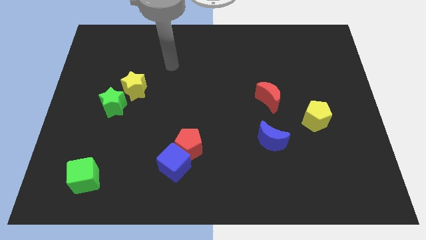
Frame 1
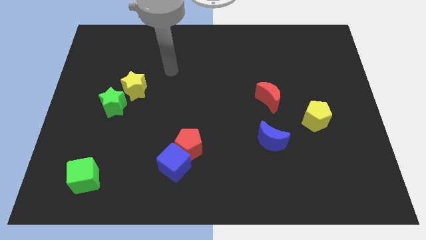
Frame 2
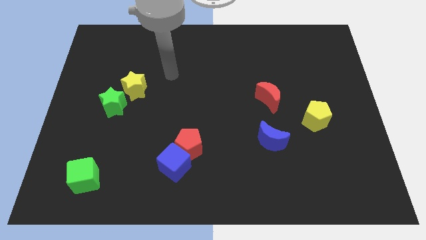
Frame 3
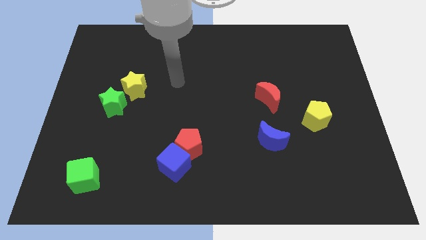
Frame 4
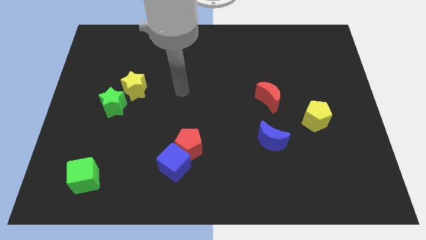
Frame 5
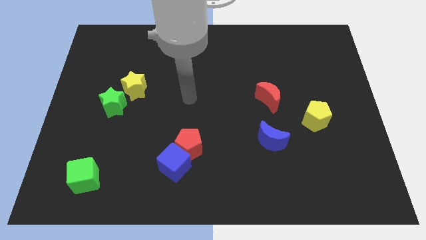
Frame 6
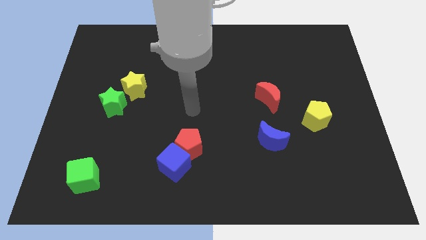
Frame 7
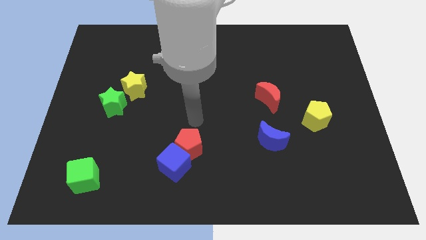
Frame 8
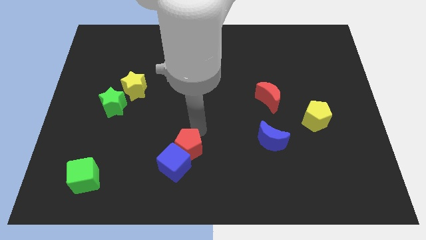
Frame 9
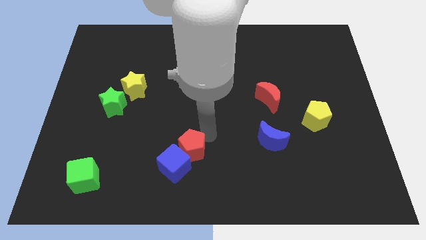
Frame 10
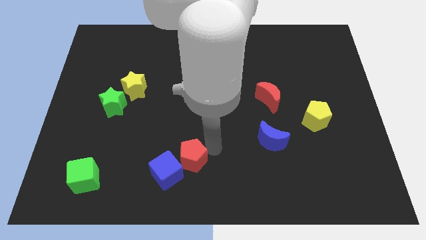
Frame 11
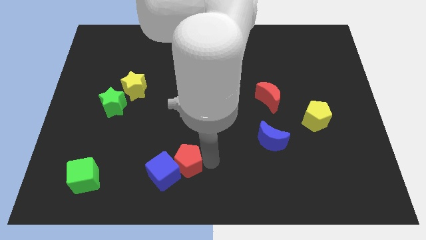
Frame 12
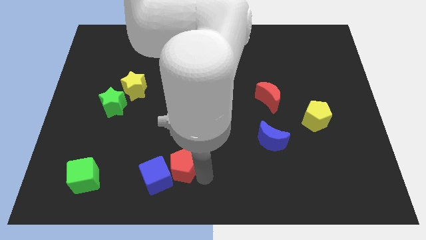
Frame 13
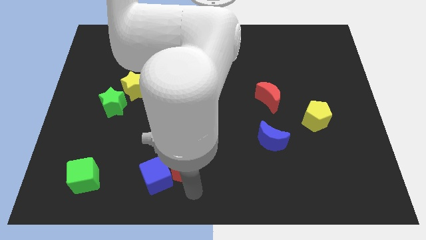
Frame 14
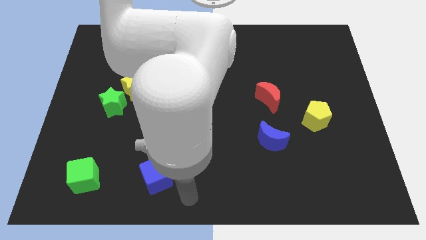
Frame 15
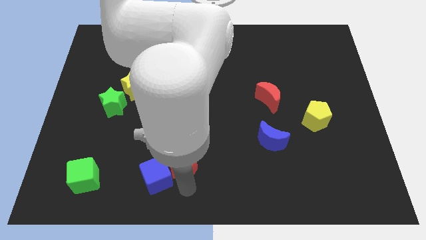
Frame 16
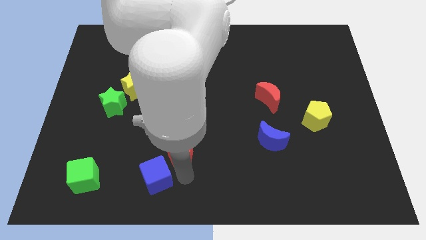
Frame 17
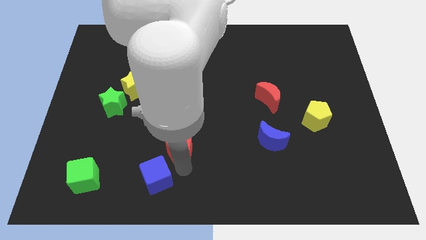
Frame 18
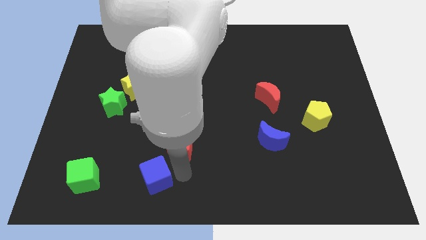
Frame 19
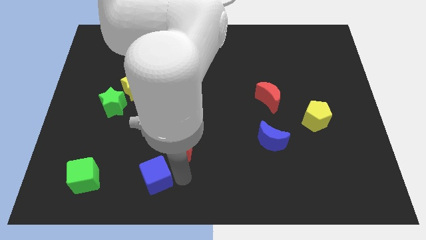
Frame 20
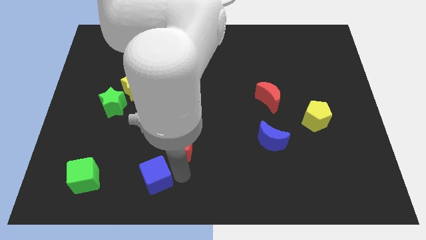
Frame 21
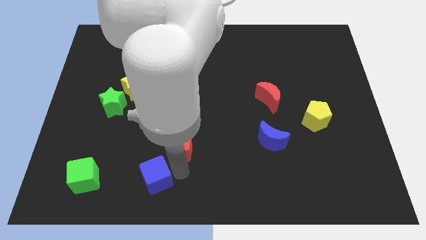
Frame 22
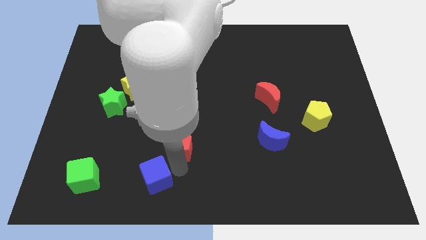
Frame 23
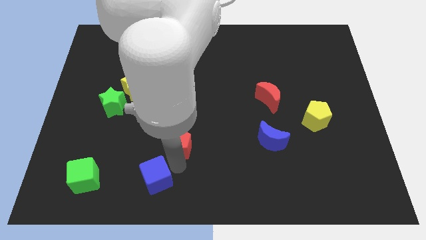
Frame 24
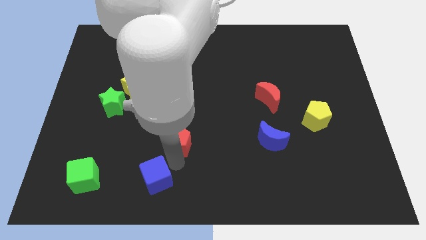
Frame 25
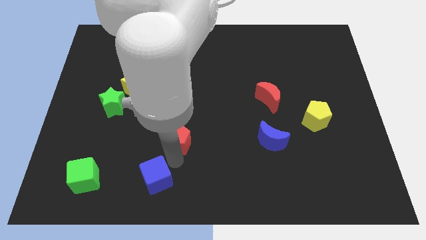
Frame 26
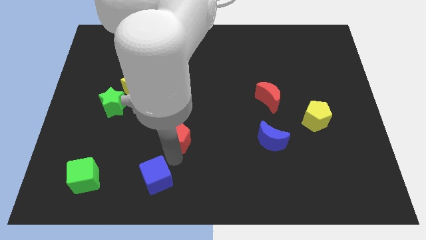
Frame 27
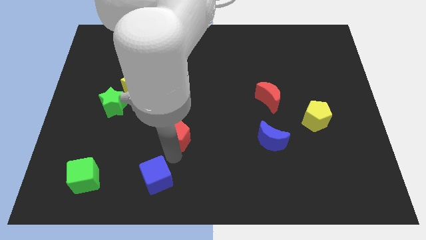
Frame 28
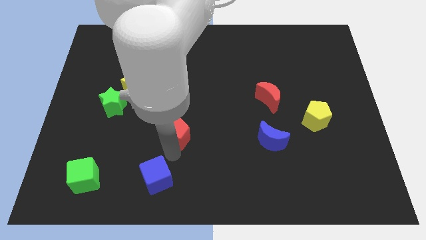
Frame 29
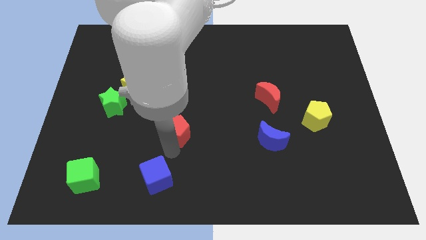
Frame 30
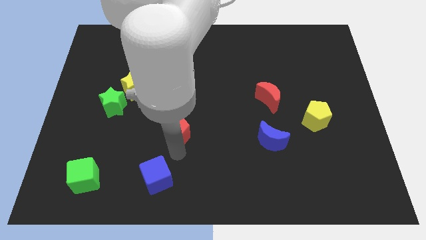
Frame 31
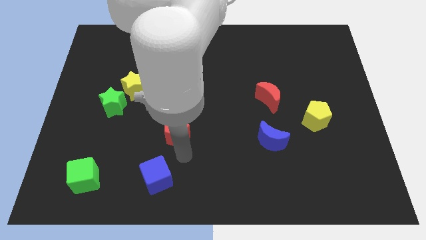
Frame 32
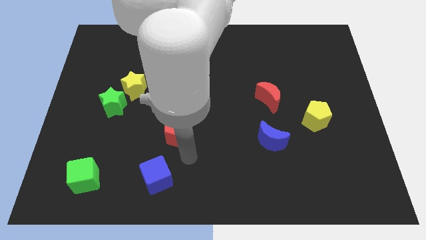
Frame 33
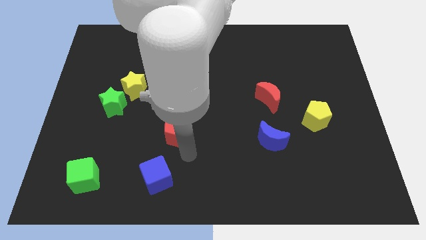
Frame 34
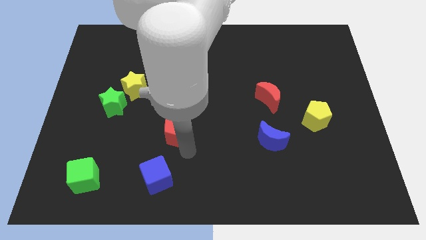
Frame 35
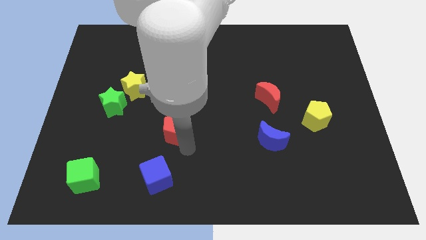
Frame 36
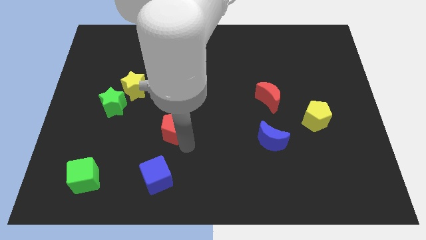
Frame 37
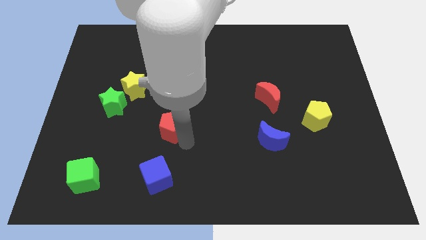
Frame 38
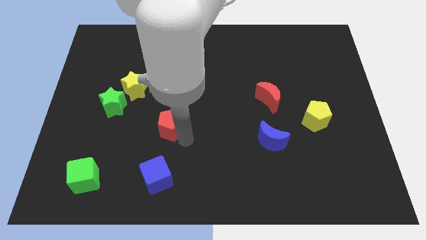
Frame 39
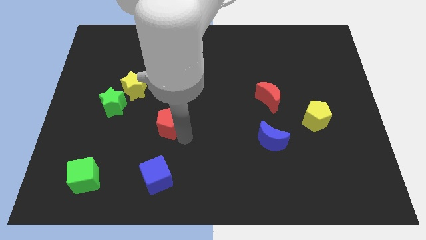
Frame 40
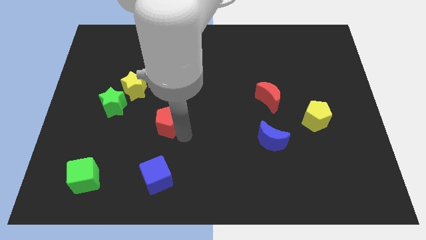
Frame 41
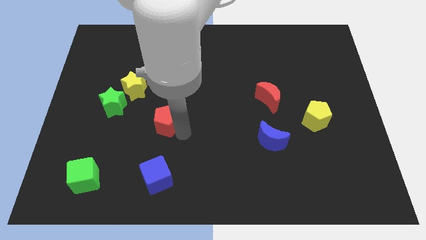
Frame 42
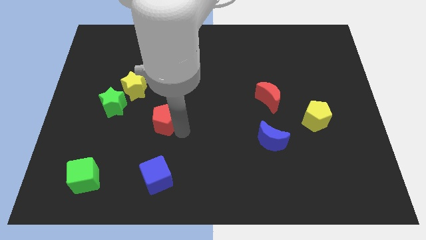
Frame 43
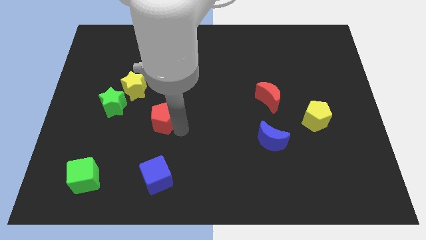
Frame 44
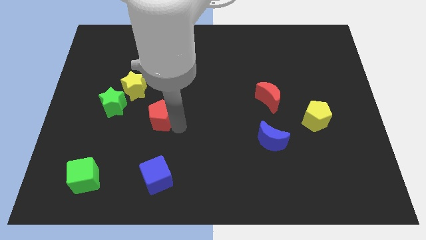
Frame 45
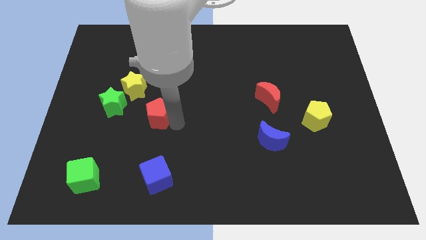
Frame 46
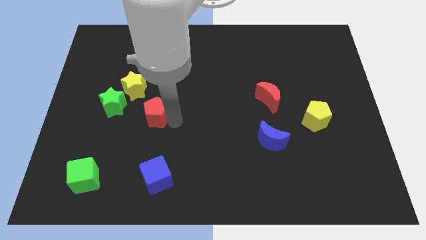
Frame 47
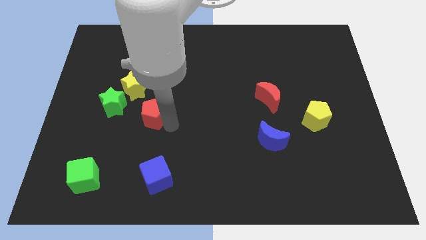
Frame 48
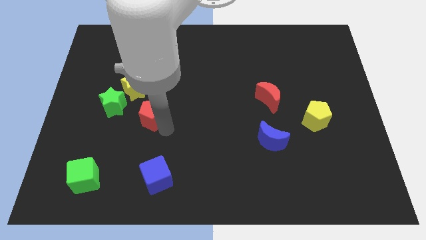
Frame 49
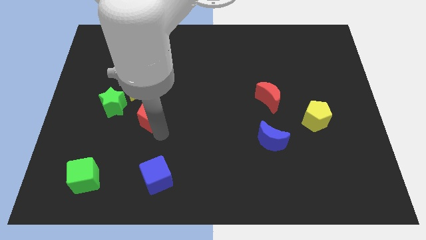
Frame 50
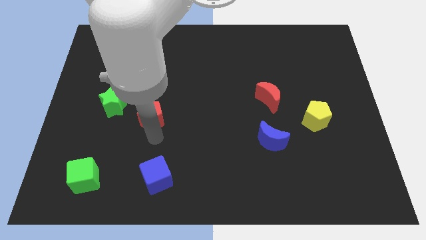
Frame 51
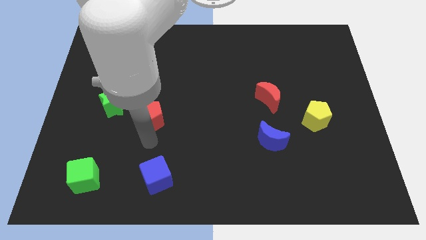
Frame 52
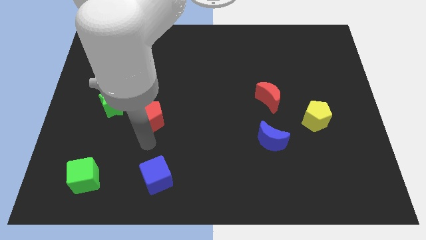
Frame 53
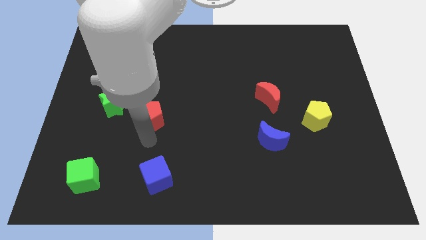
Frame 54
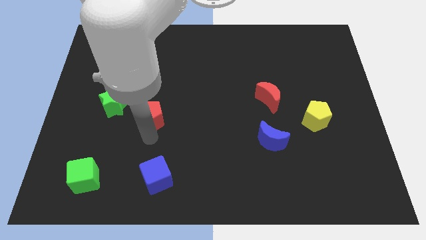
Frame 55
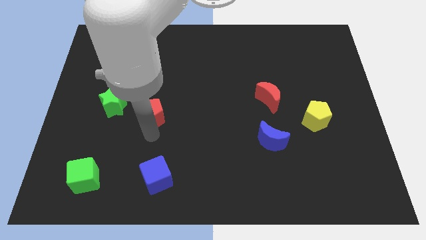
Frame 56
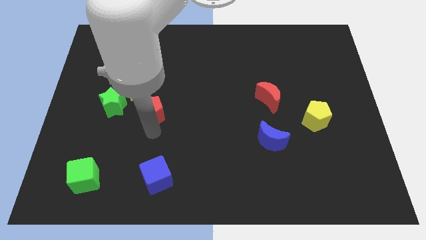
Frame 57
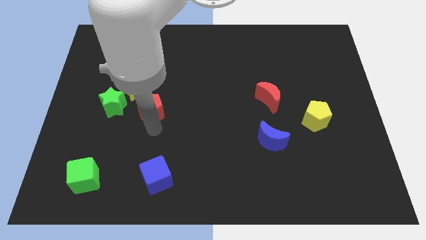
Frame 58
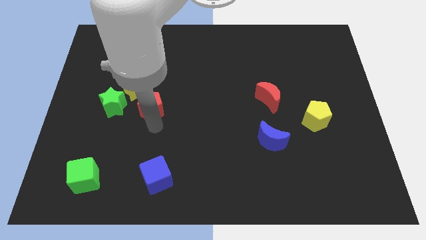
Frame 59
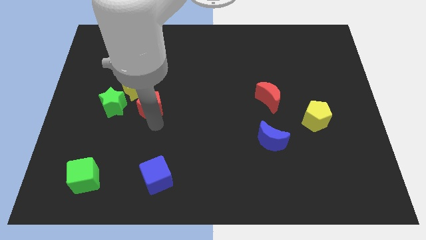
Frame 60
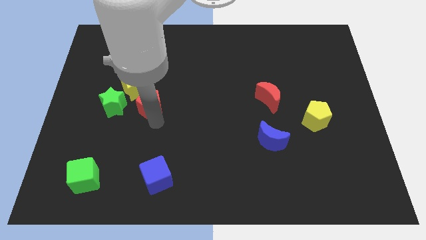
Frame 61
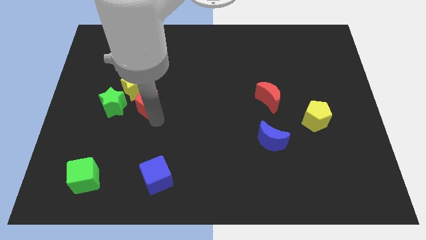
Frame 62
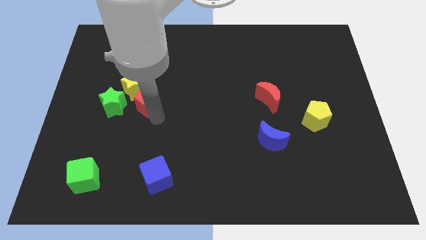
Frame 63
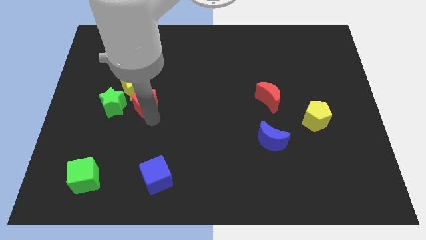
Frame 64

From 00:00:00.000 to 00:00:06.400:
put the red pentagon to the top right of the green star

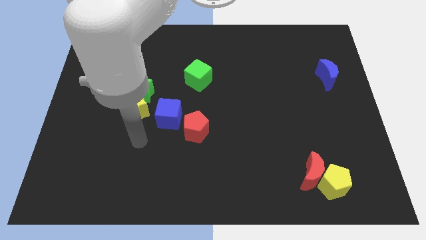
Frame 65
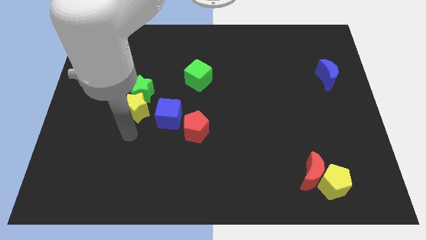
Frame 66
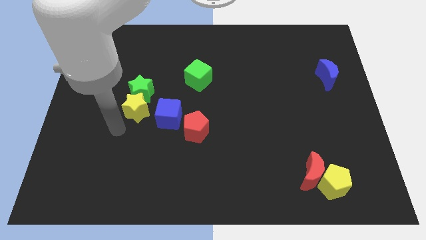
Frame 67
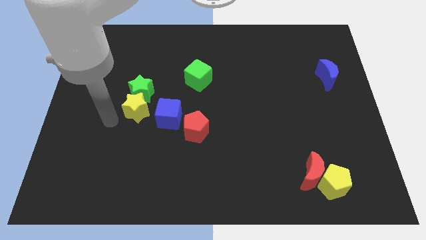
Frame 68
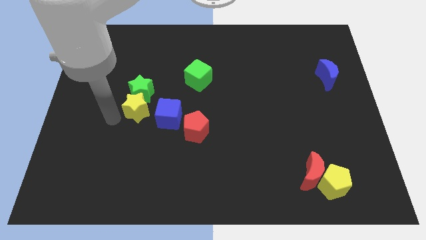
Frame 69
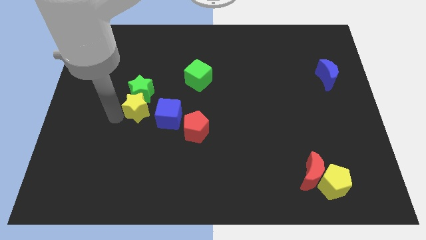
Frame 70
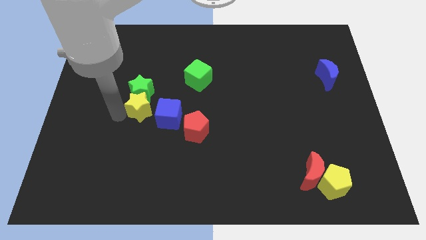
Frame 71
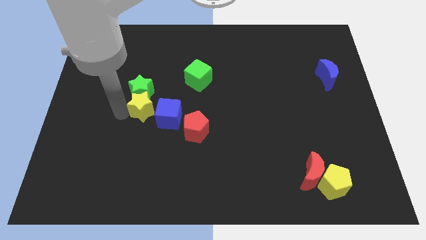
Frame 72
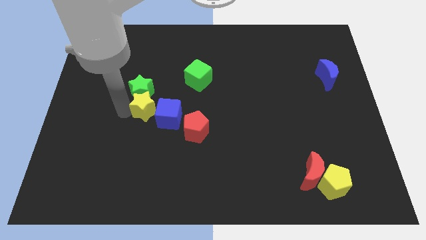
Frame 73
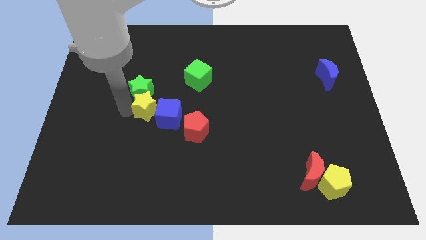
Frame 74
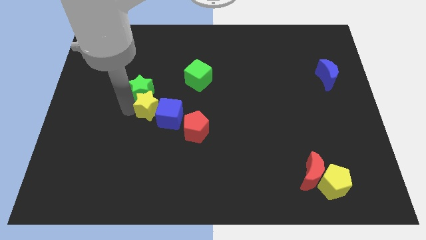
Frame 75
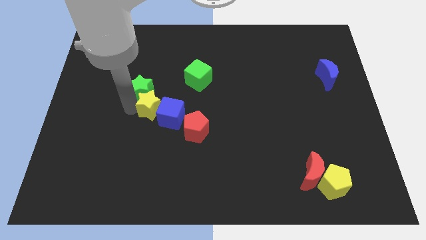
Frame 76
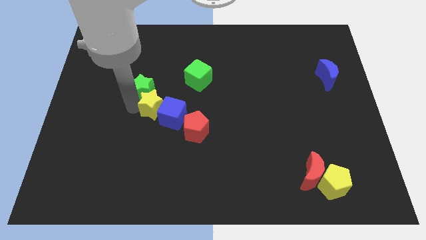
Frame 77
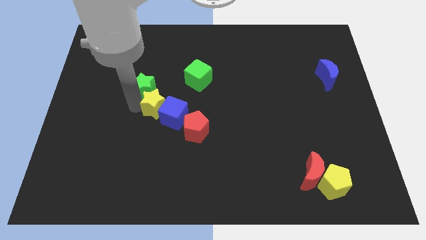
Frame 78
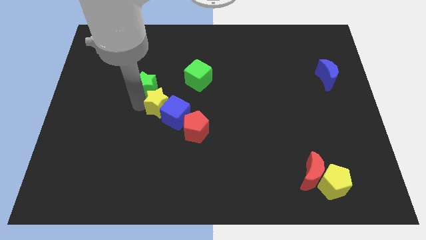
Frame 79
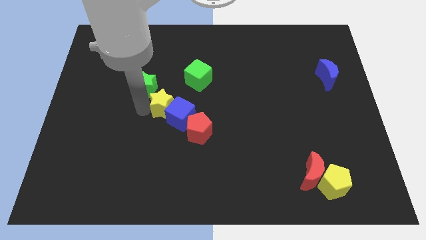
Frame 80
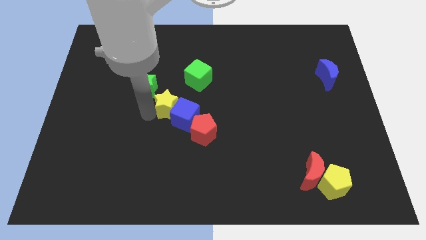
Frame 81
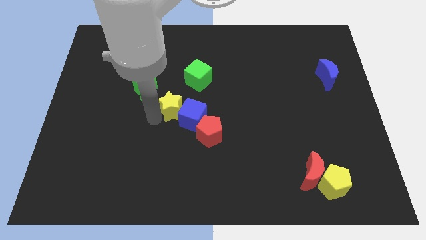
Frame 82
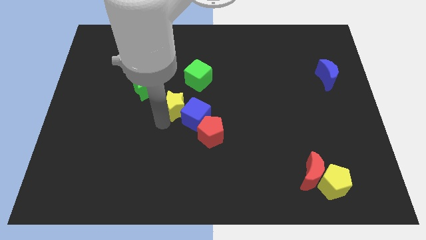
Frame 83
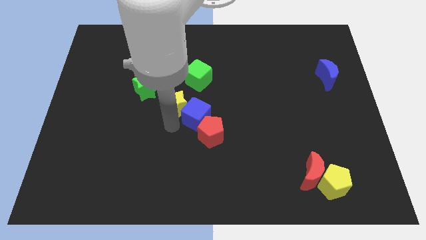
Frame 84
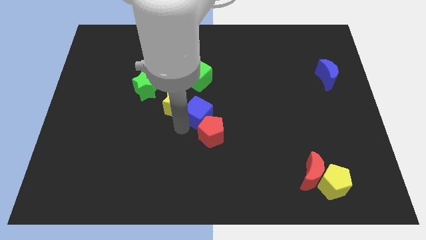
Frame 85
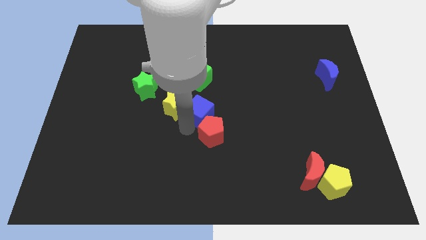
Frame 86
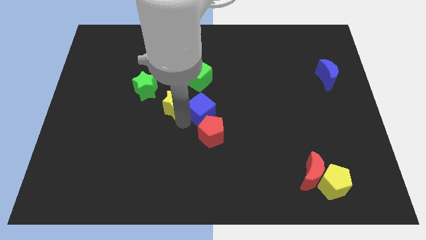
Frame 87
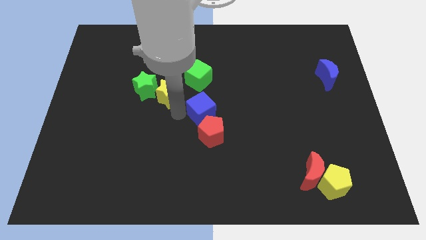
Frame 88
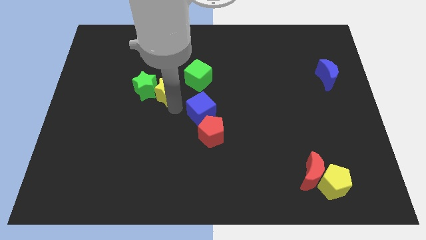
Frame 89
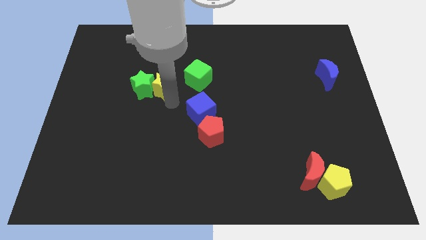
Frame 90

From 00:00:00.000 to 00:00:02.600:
move the yellow star just left of the green cube
